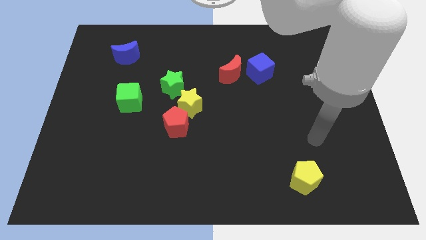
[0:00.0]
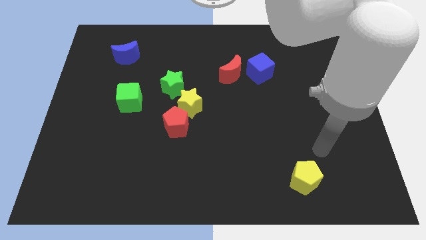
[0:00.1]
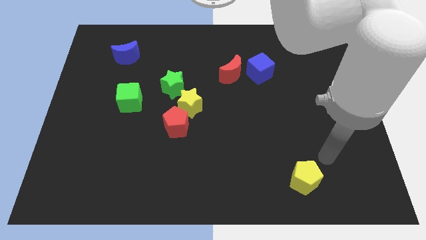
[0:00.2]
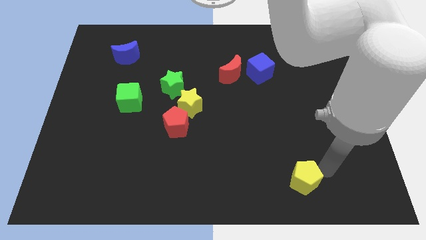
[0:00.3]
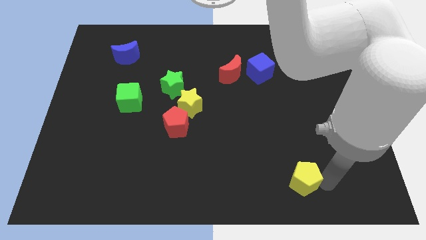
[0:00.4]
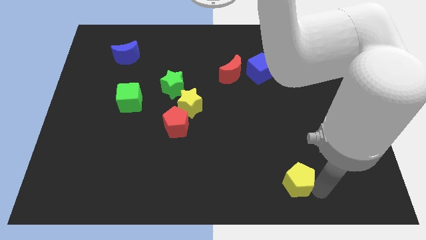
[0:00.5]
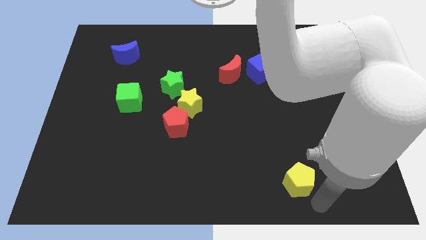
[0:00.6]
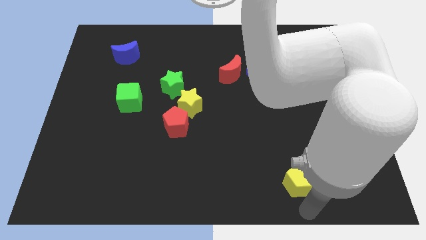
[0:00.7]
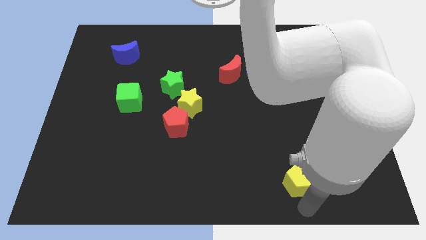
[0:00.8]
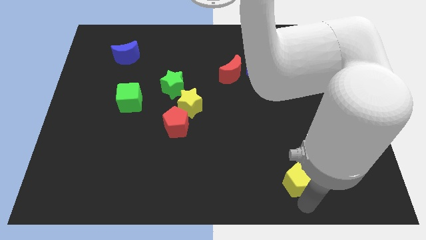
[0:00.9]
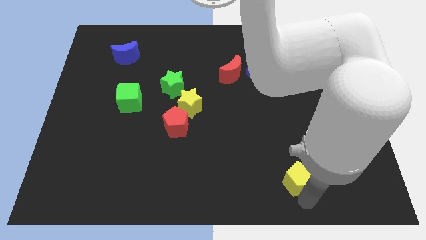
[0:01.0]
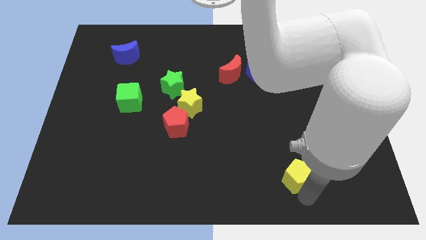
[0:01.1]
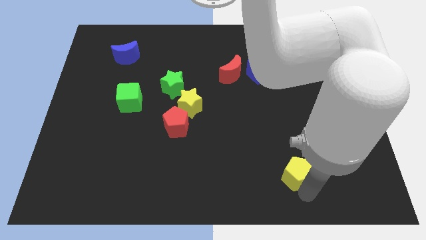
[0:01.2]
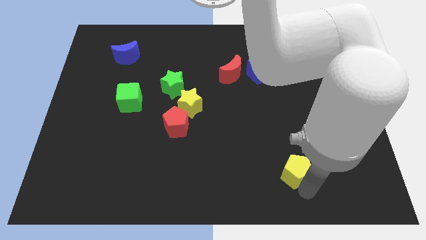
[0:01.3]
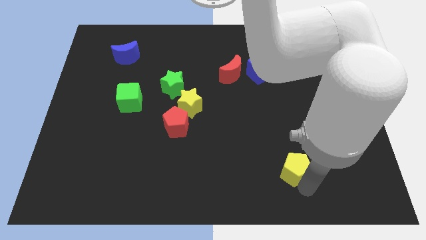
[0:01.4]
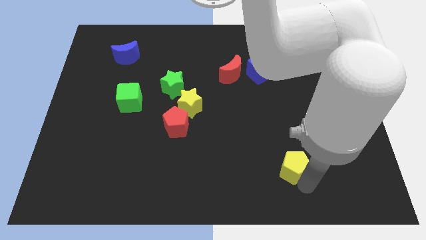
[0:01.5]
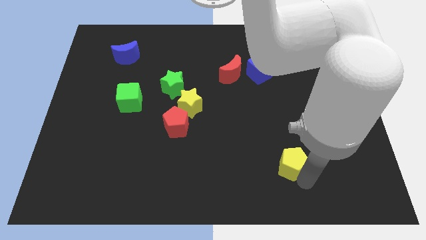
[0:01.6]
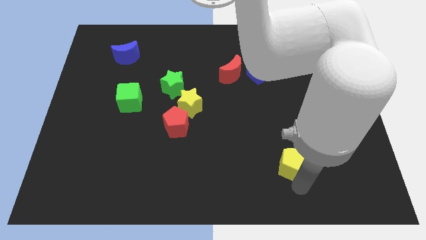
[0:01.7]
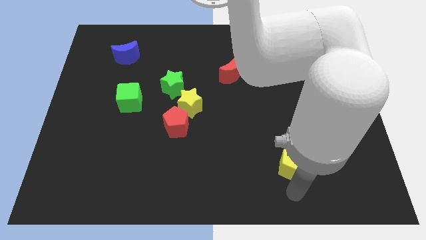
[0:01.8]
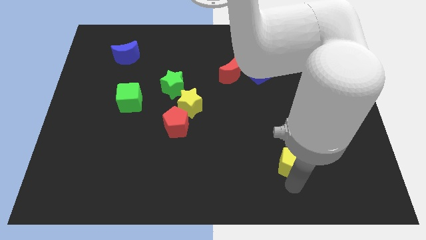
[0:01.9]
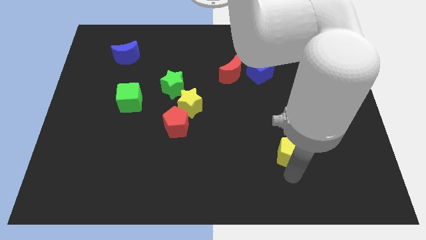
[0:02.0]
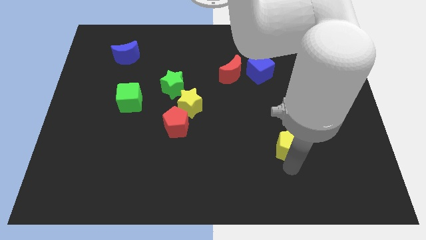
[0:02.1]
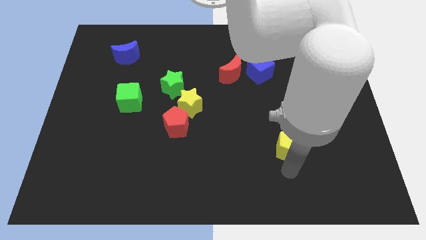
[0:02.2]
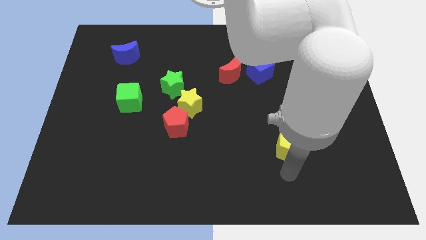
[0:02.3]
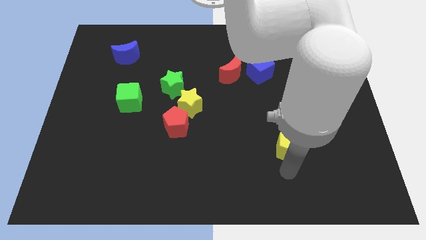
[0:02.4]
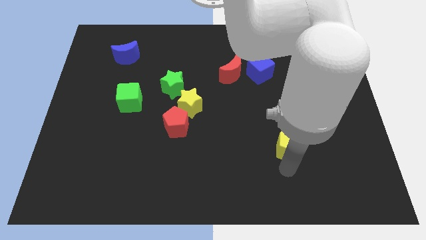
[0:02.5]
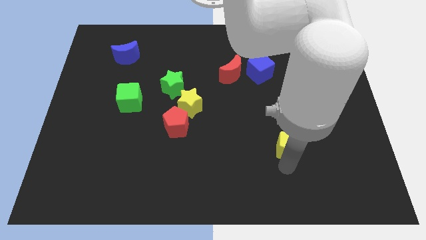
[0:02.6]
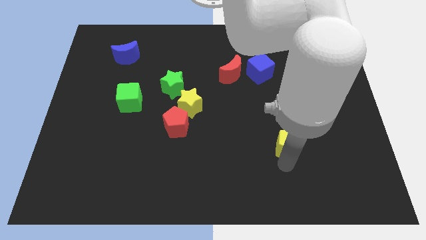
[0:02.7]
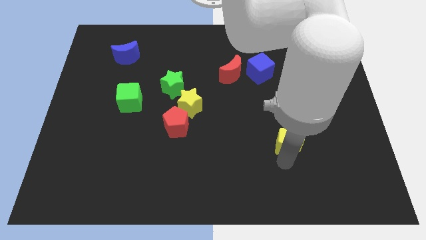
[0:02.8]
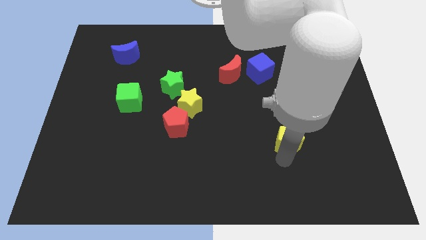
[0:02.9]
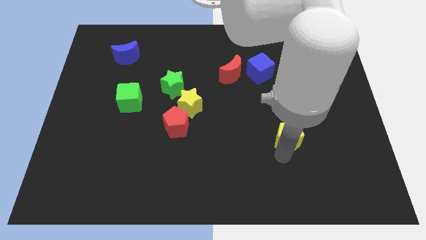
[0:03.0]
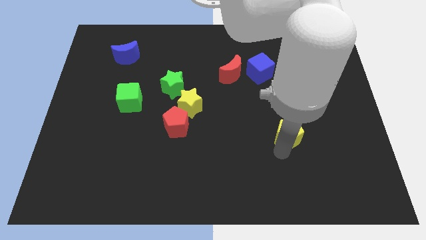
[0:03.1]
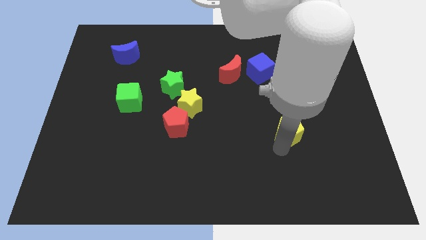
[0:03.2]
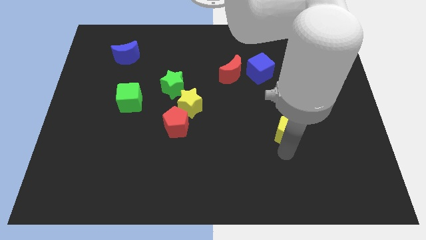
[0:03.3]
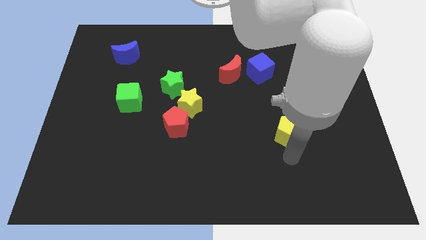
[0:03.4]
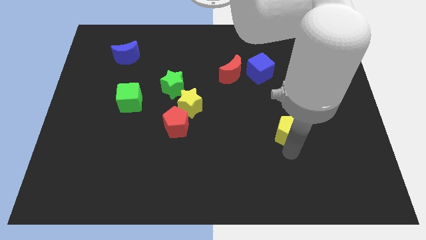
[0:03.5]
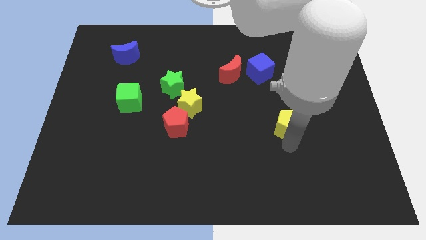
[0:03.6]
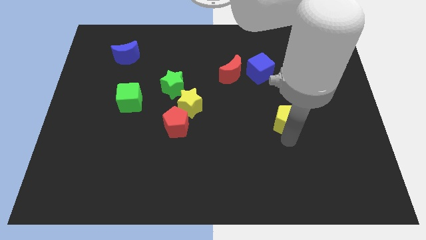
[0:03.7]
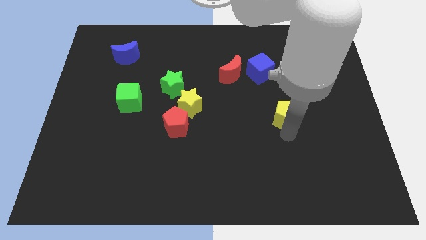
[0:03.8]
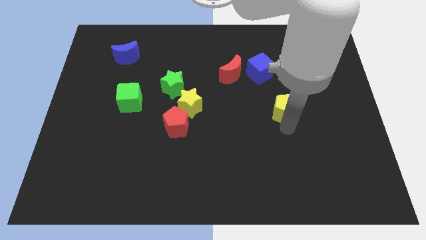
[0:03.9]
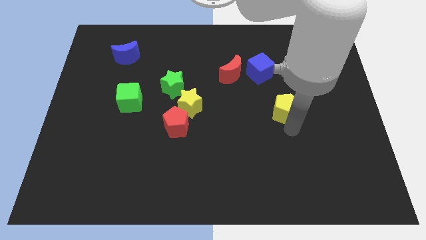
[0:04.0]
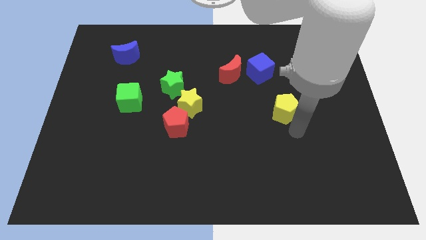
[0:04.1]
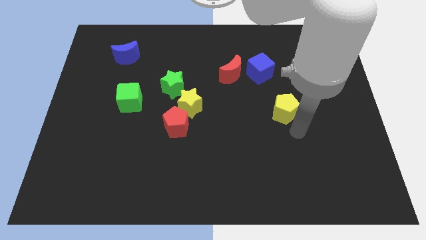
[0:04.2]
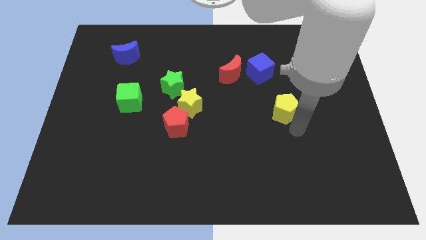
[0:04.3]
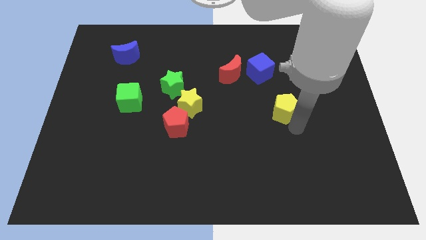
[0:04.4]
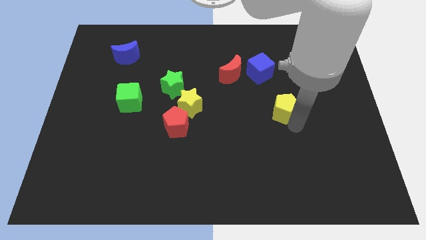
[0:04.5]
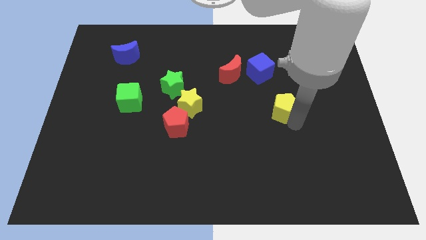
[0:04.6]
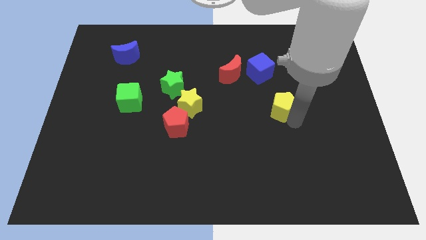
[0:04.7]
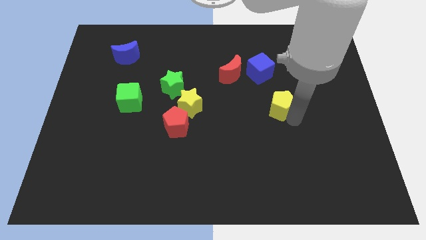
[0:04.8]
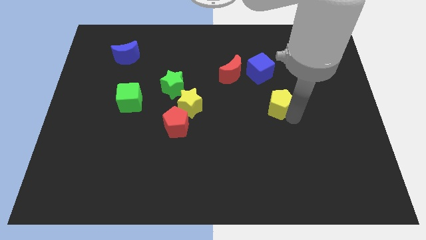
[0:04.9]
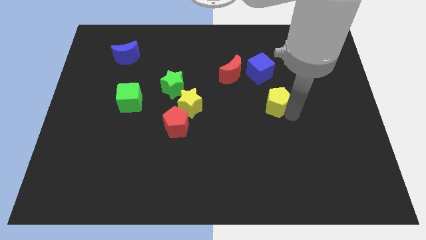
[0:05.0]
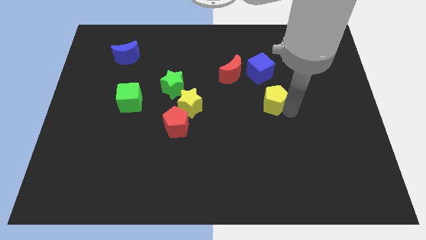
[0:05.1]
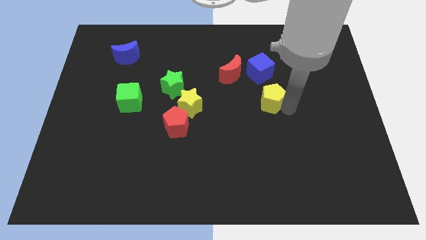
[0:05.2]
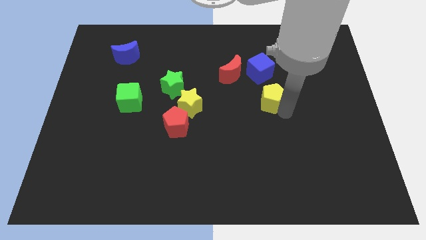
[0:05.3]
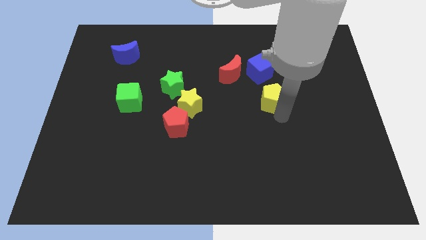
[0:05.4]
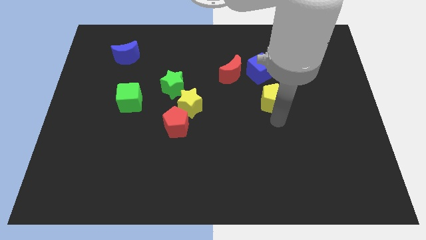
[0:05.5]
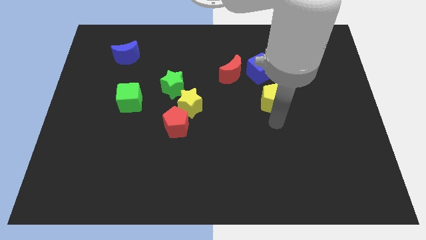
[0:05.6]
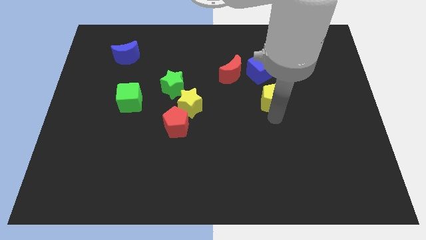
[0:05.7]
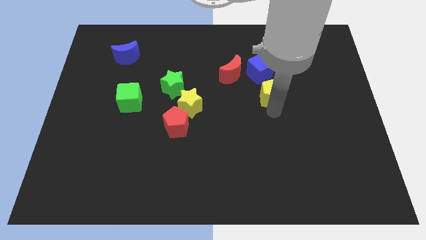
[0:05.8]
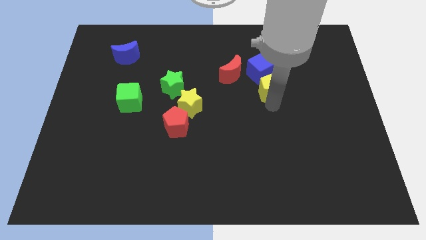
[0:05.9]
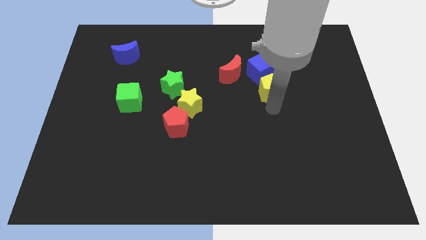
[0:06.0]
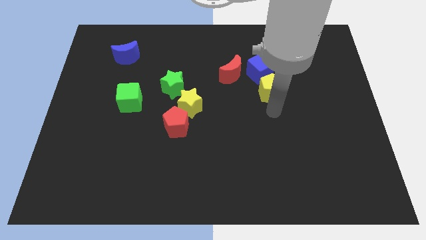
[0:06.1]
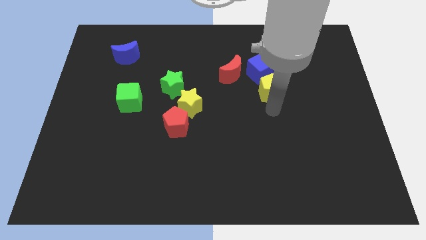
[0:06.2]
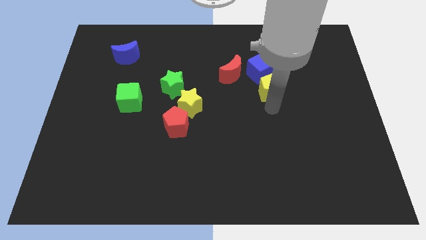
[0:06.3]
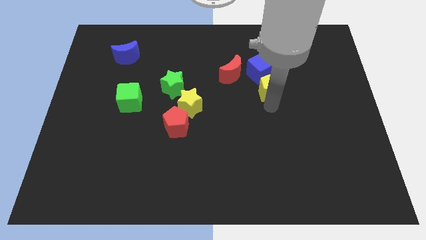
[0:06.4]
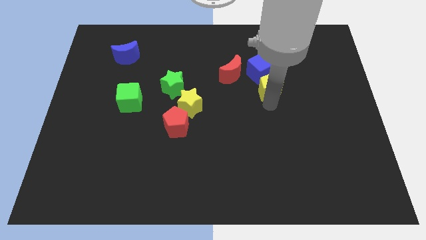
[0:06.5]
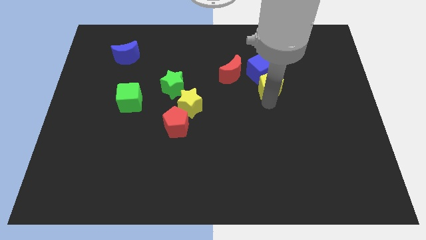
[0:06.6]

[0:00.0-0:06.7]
push the yellow pentagon to the blue cube

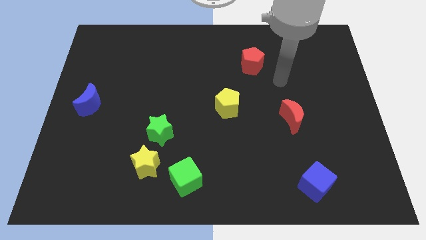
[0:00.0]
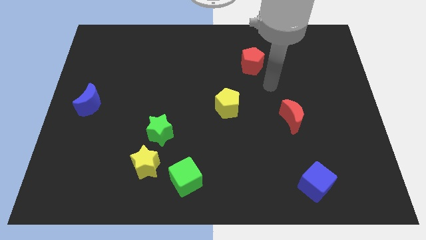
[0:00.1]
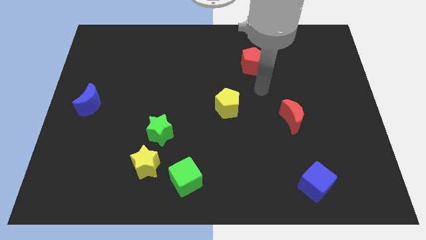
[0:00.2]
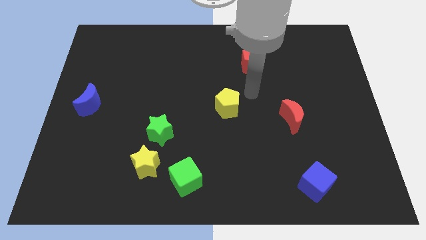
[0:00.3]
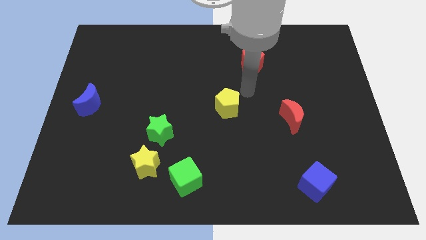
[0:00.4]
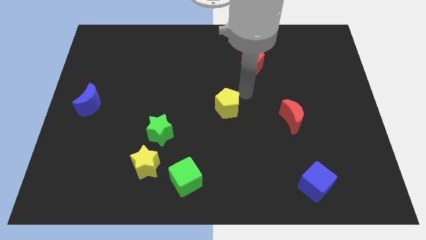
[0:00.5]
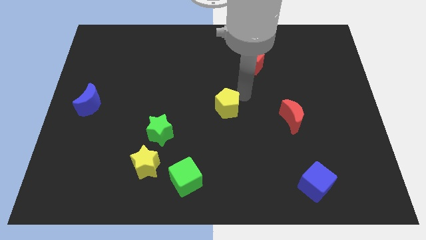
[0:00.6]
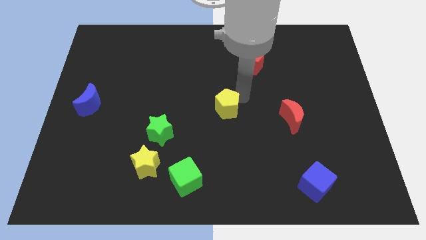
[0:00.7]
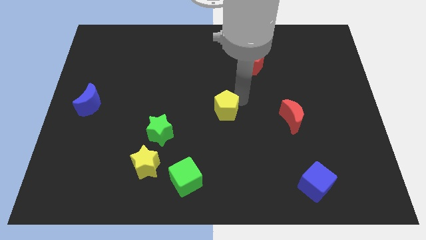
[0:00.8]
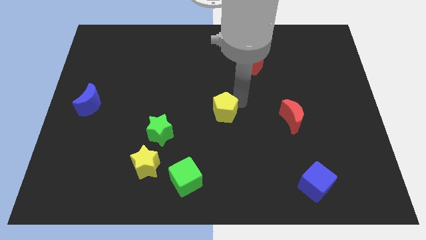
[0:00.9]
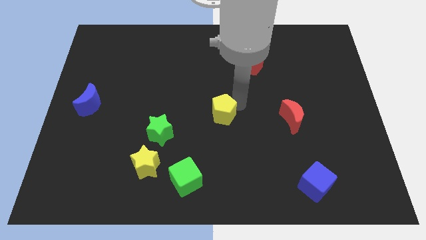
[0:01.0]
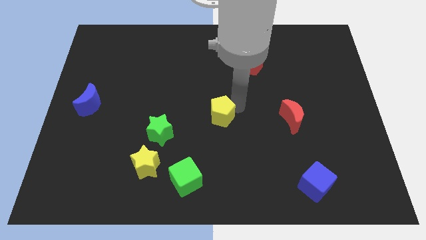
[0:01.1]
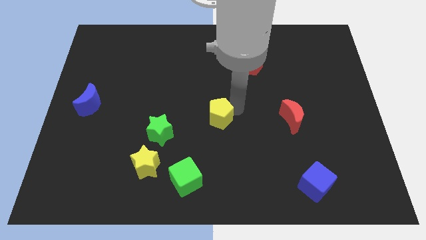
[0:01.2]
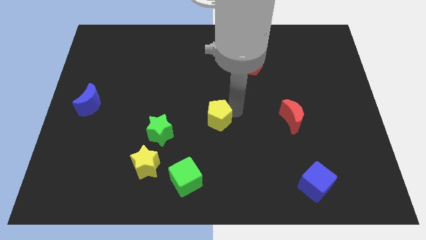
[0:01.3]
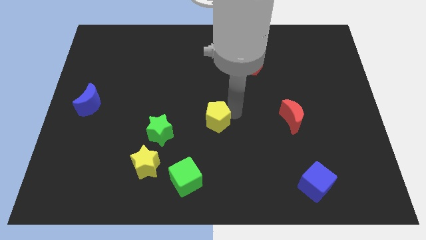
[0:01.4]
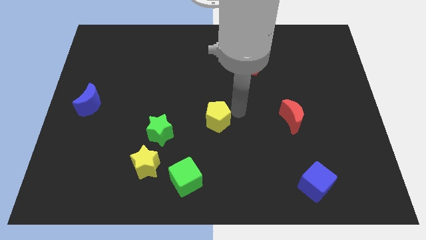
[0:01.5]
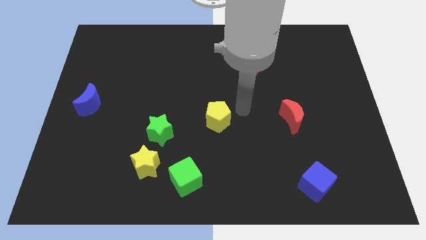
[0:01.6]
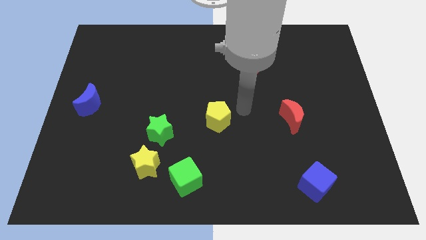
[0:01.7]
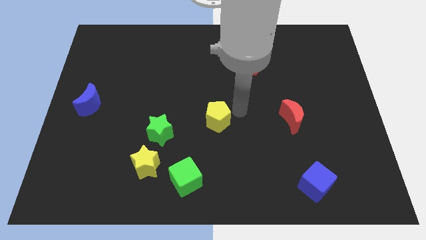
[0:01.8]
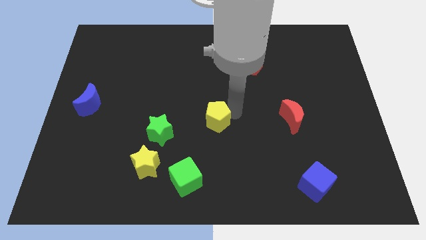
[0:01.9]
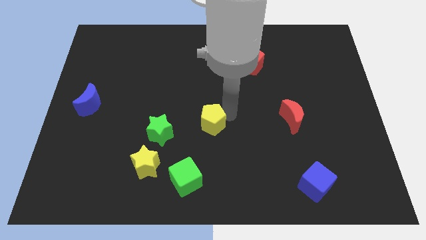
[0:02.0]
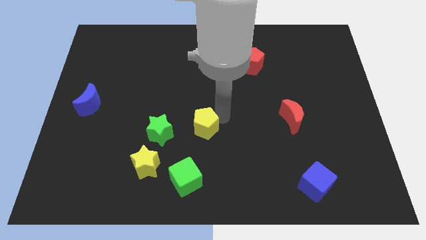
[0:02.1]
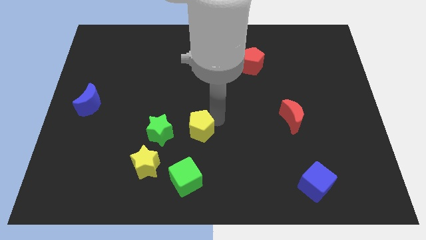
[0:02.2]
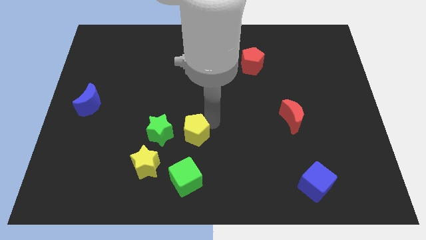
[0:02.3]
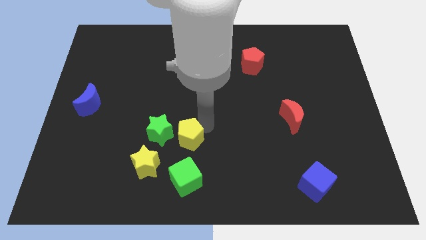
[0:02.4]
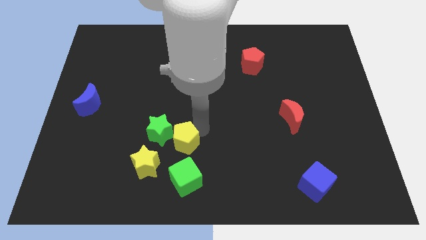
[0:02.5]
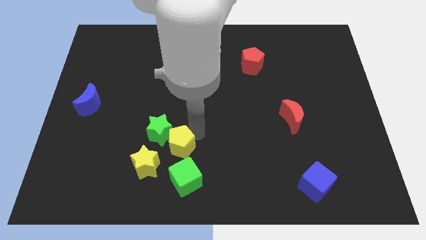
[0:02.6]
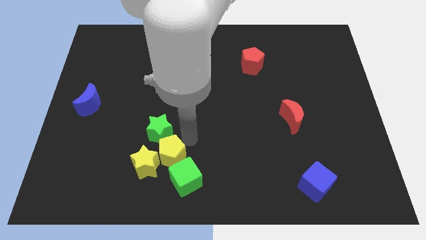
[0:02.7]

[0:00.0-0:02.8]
move the yellow pentagon next to the yellow star
